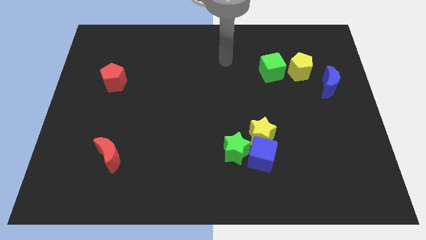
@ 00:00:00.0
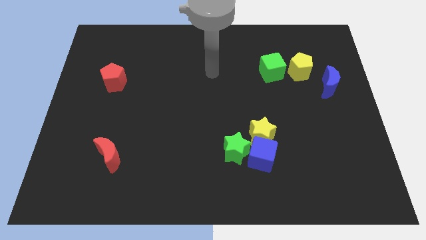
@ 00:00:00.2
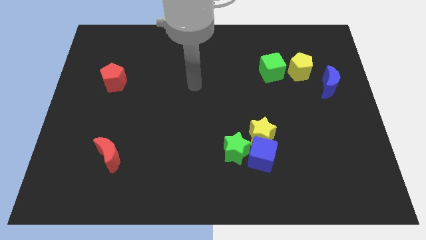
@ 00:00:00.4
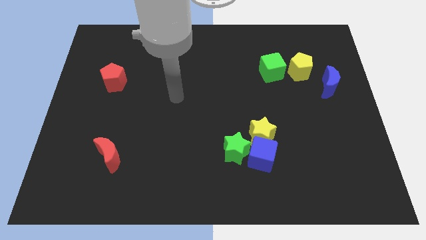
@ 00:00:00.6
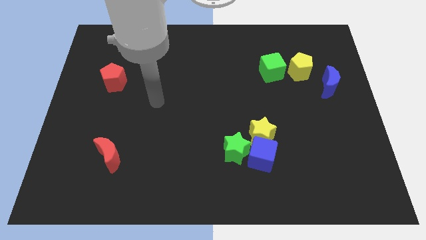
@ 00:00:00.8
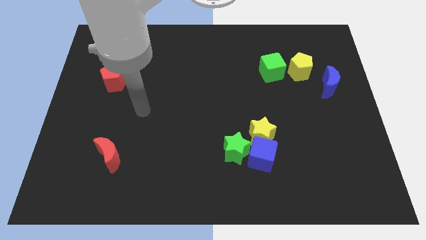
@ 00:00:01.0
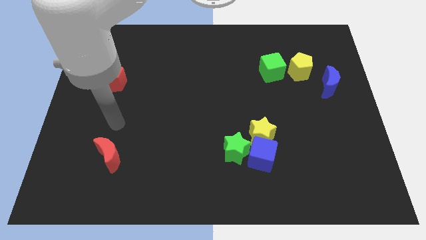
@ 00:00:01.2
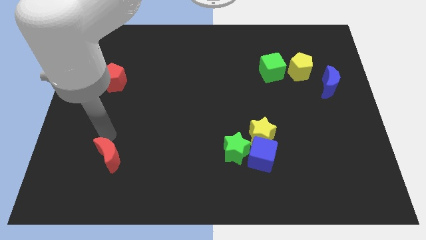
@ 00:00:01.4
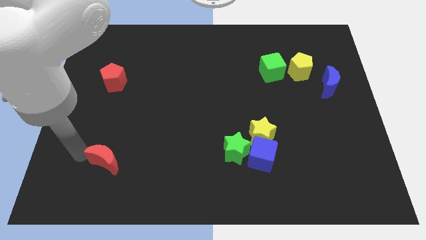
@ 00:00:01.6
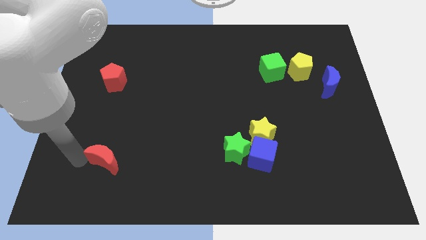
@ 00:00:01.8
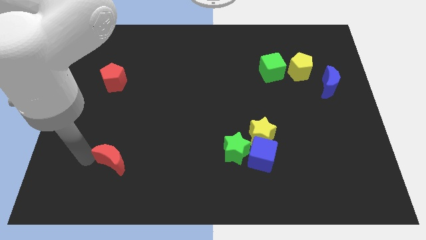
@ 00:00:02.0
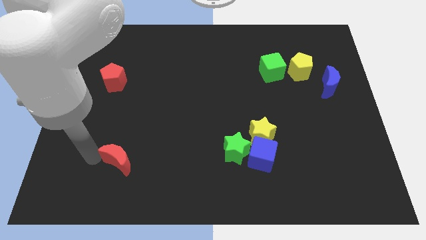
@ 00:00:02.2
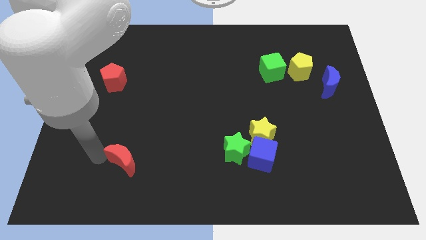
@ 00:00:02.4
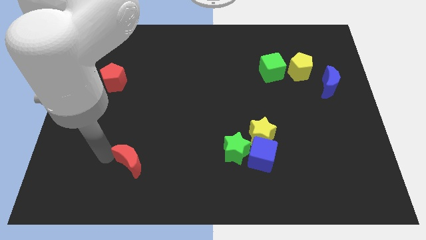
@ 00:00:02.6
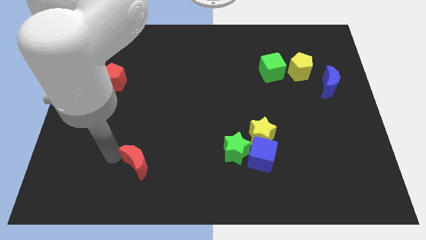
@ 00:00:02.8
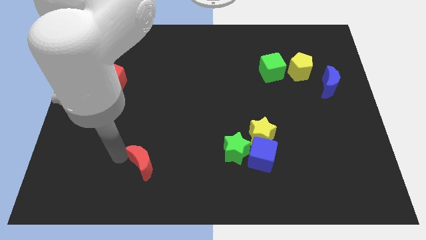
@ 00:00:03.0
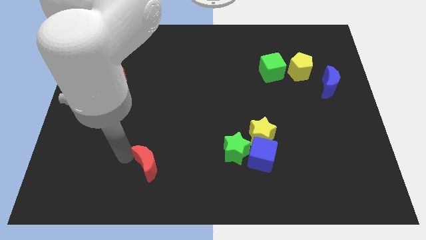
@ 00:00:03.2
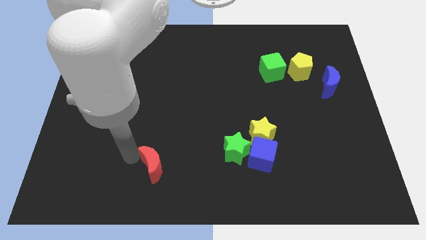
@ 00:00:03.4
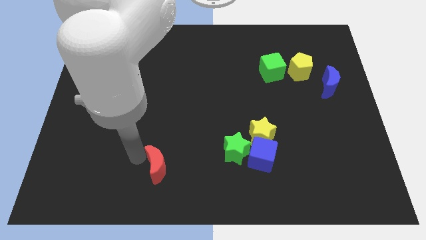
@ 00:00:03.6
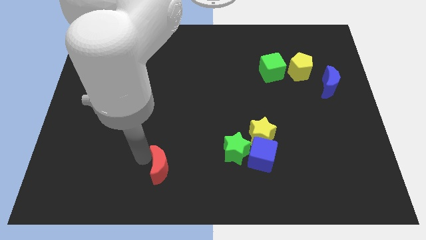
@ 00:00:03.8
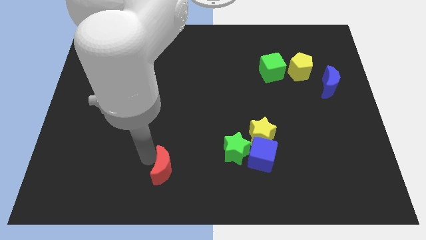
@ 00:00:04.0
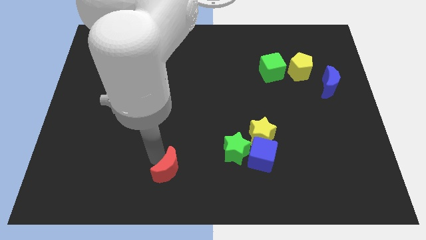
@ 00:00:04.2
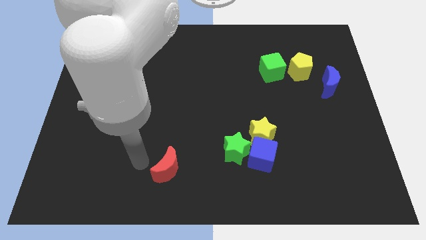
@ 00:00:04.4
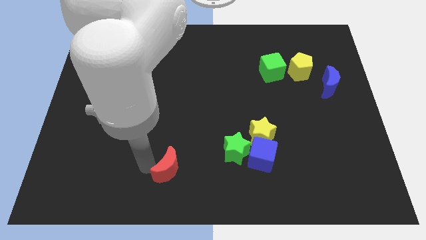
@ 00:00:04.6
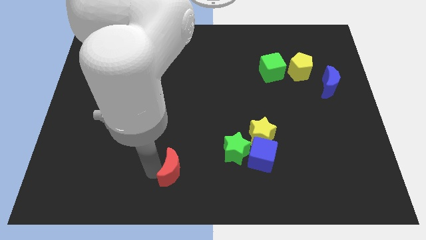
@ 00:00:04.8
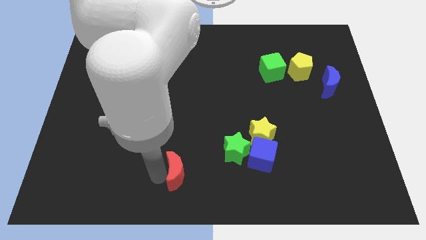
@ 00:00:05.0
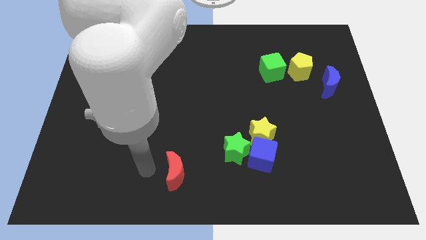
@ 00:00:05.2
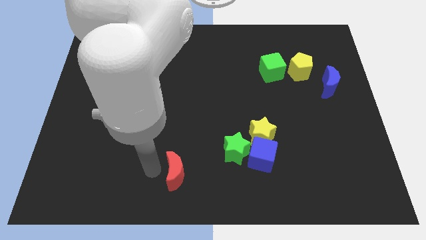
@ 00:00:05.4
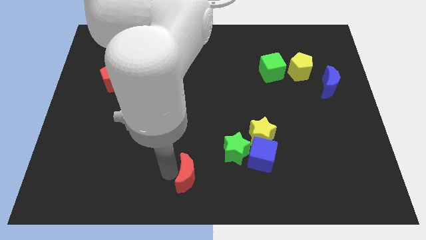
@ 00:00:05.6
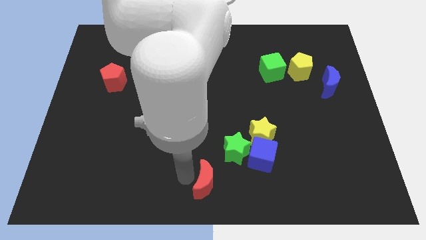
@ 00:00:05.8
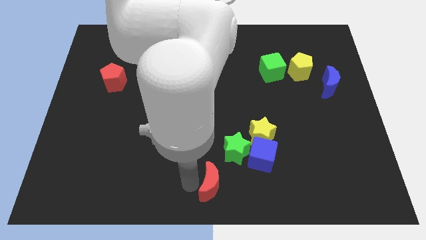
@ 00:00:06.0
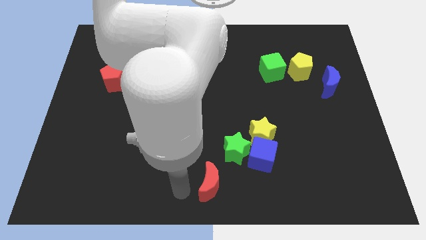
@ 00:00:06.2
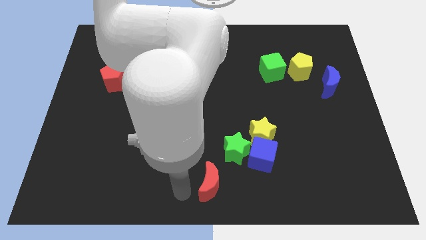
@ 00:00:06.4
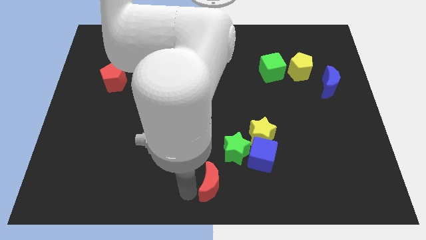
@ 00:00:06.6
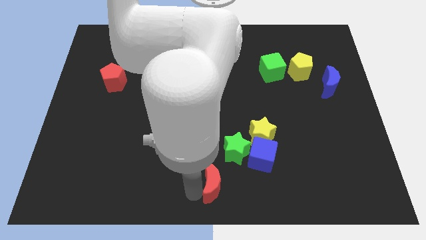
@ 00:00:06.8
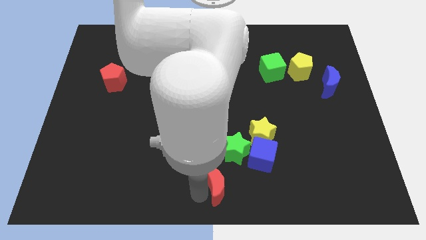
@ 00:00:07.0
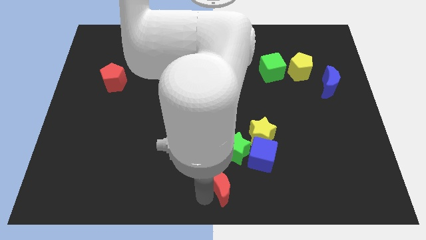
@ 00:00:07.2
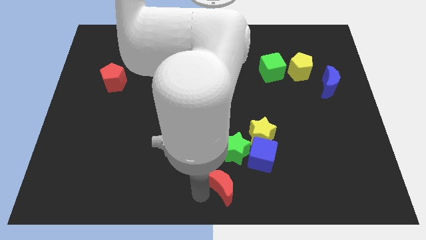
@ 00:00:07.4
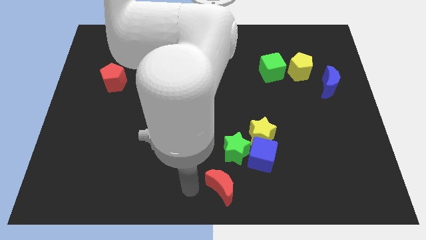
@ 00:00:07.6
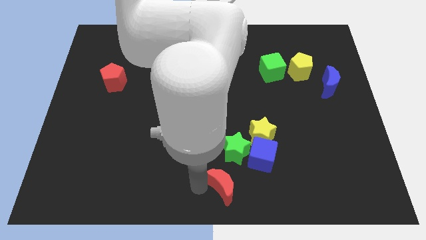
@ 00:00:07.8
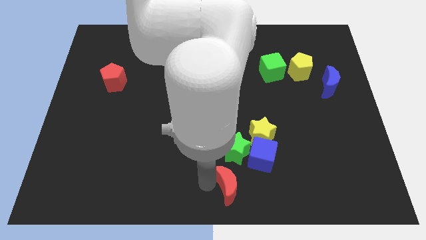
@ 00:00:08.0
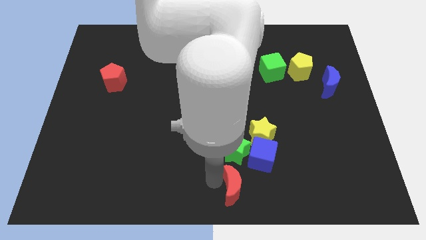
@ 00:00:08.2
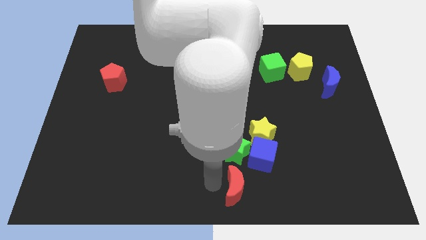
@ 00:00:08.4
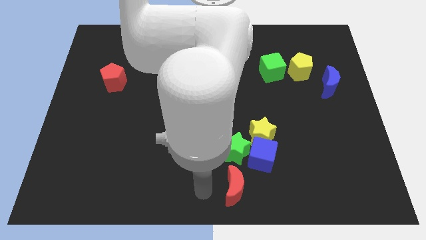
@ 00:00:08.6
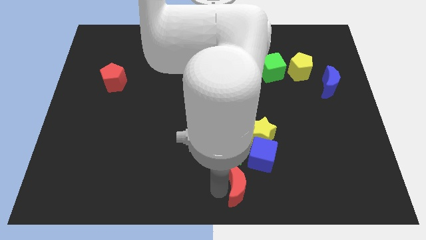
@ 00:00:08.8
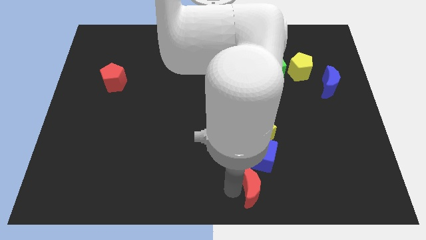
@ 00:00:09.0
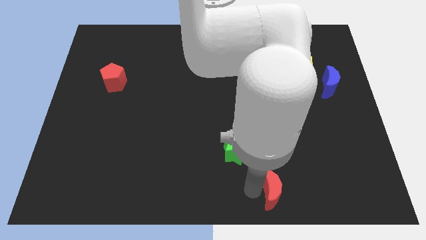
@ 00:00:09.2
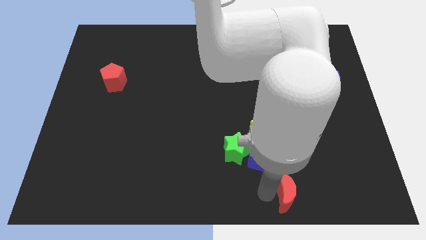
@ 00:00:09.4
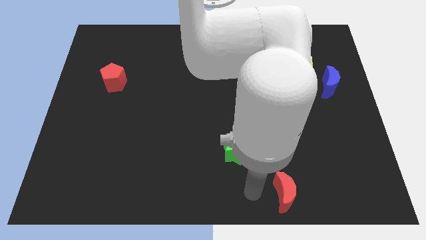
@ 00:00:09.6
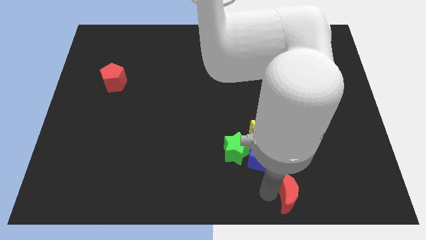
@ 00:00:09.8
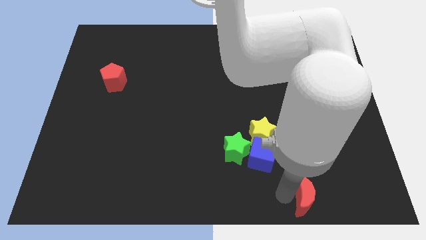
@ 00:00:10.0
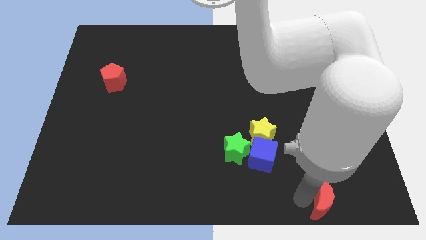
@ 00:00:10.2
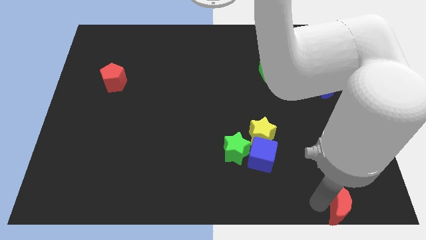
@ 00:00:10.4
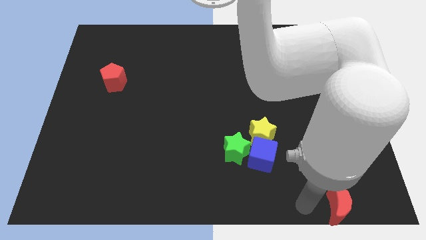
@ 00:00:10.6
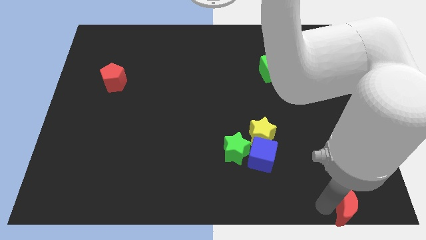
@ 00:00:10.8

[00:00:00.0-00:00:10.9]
slide the red moon to the lower right corner

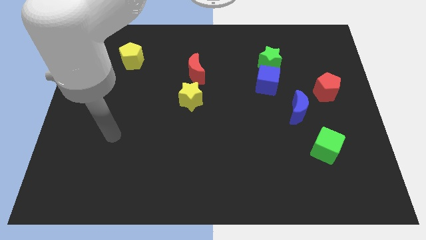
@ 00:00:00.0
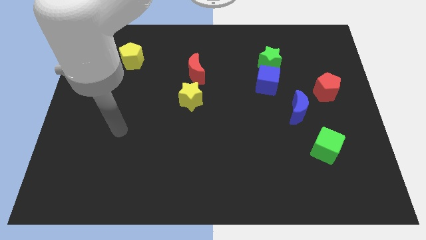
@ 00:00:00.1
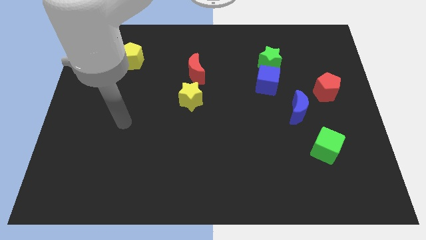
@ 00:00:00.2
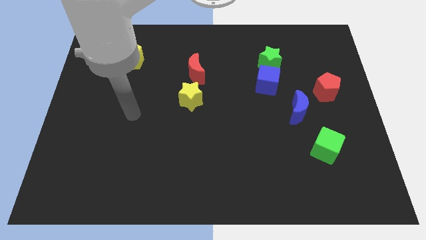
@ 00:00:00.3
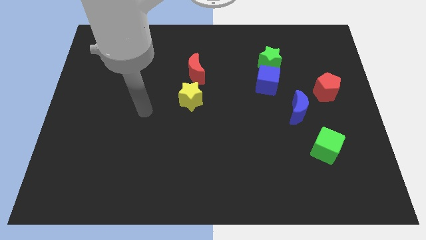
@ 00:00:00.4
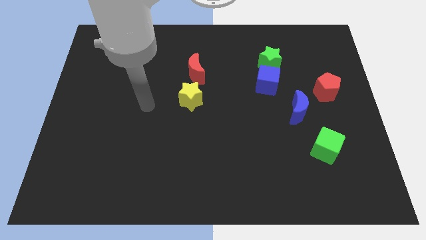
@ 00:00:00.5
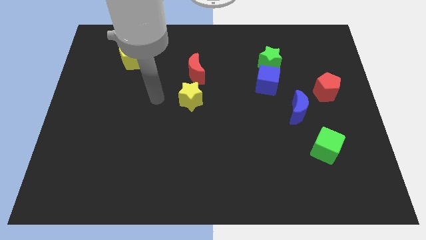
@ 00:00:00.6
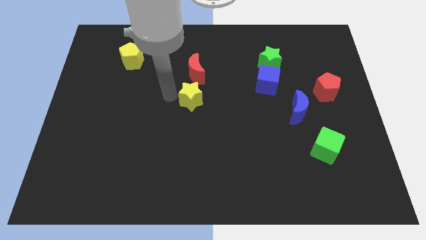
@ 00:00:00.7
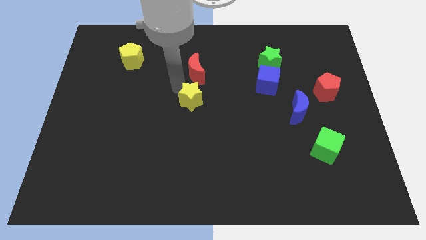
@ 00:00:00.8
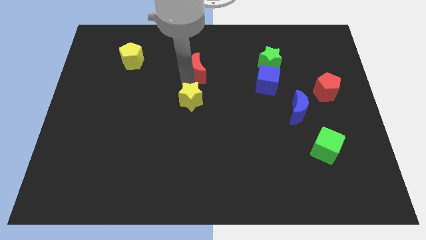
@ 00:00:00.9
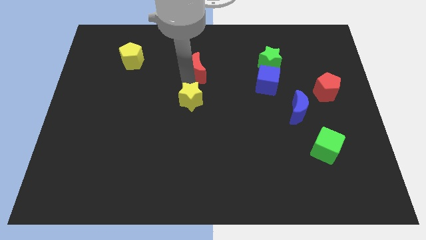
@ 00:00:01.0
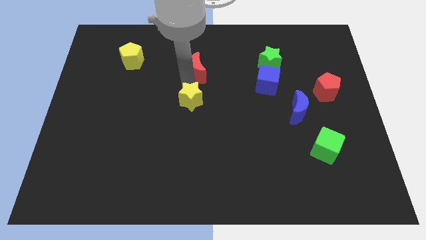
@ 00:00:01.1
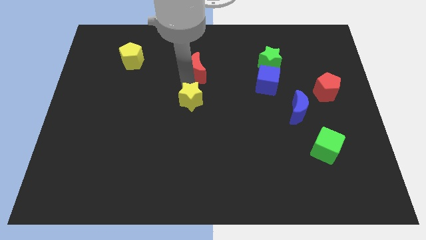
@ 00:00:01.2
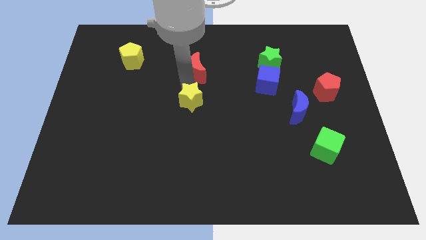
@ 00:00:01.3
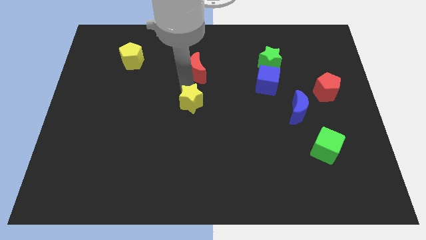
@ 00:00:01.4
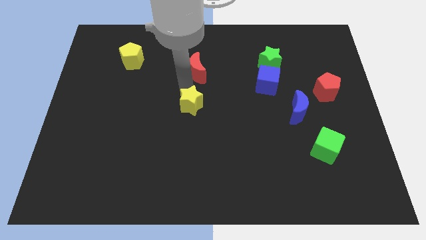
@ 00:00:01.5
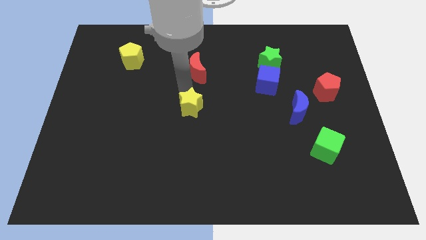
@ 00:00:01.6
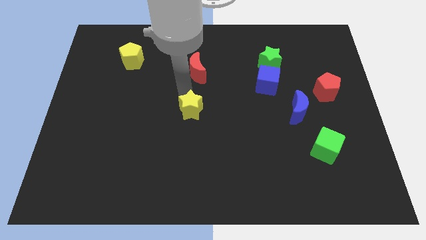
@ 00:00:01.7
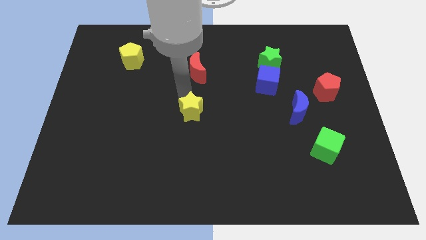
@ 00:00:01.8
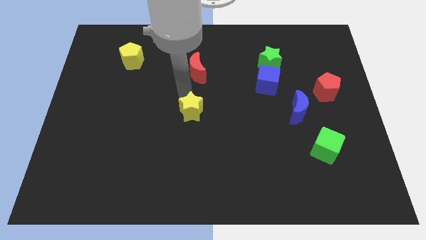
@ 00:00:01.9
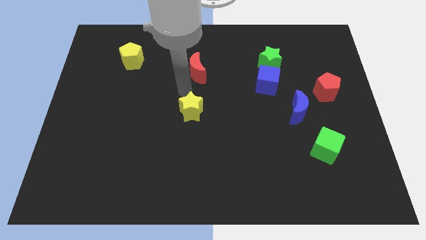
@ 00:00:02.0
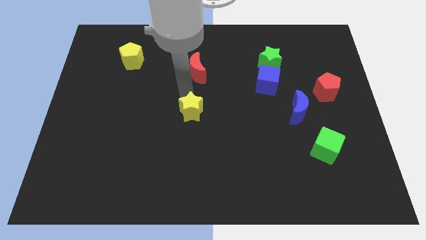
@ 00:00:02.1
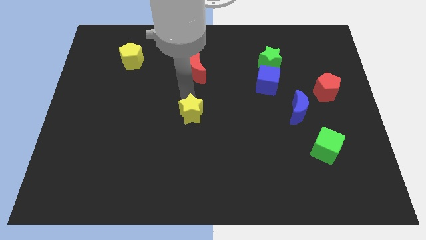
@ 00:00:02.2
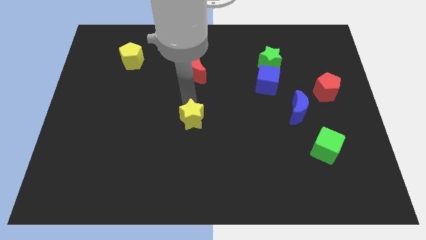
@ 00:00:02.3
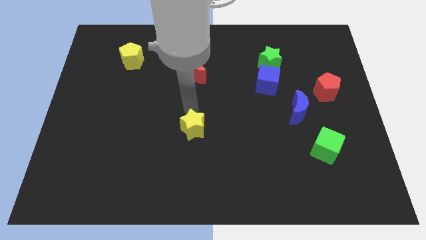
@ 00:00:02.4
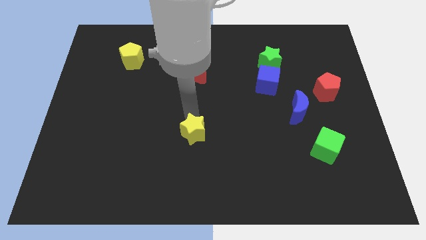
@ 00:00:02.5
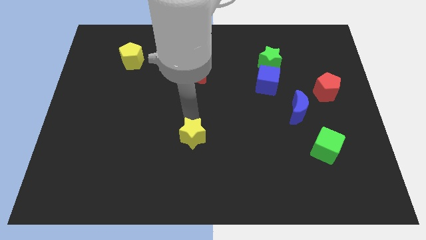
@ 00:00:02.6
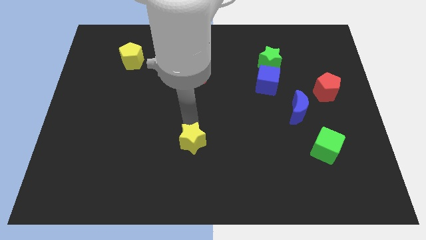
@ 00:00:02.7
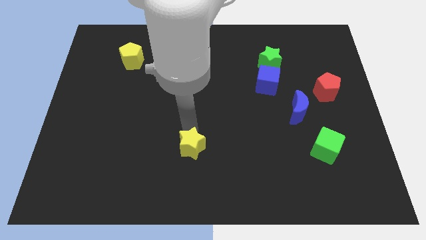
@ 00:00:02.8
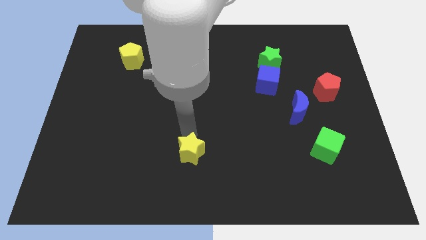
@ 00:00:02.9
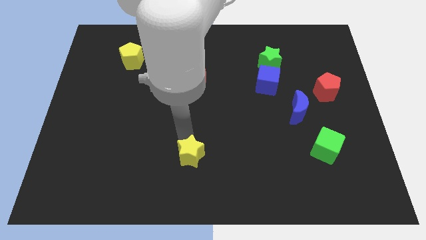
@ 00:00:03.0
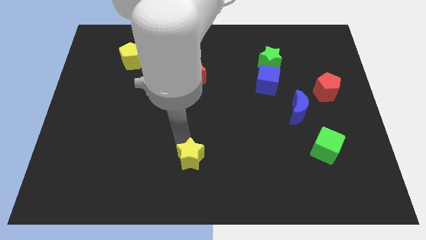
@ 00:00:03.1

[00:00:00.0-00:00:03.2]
move the yellow star to the bottom side
